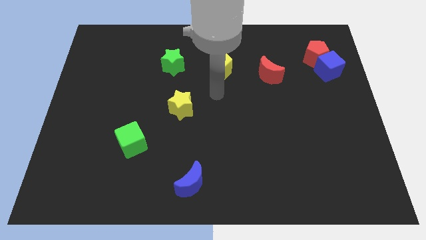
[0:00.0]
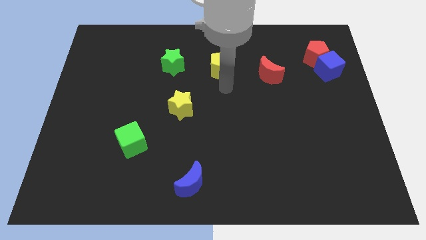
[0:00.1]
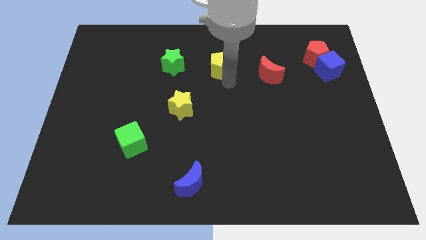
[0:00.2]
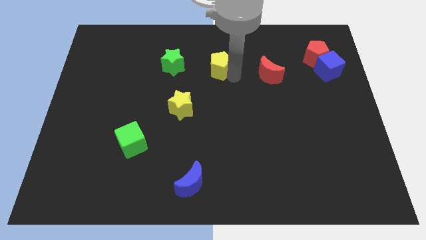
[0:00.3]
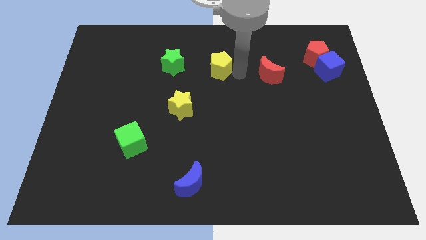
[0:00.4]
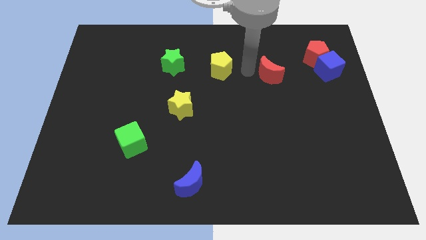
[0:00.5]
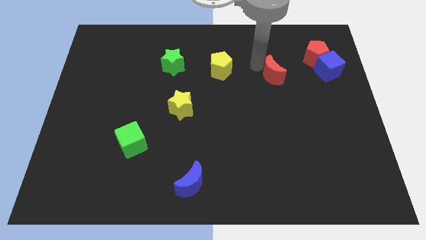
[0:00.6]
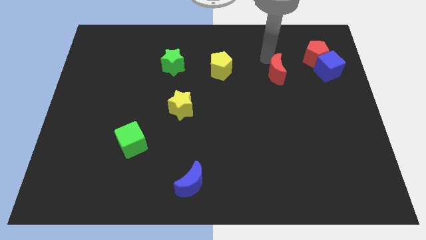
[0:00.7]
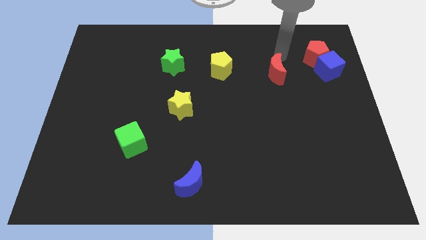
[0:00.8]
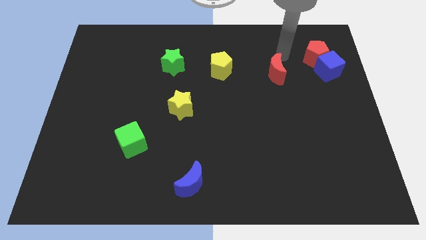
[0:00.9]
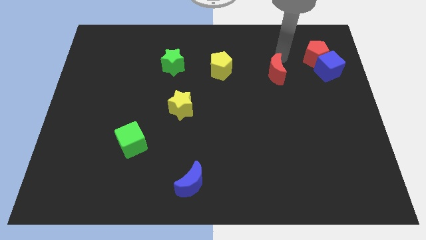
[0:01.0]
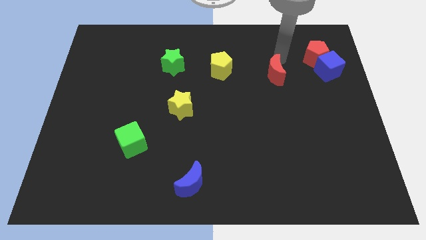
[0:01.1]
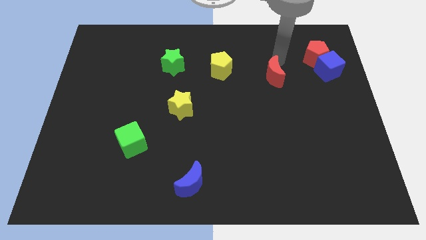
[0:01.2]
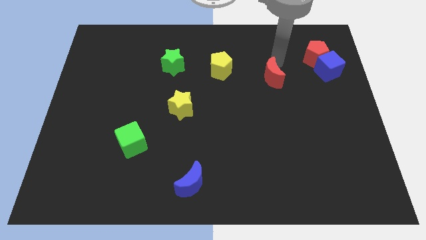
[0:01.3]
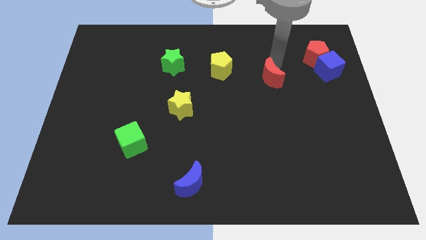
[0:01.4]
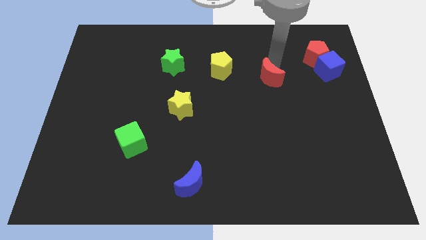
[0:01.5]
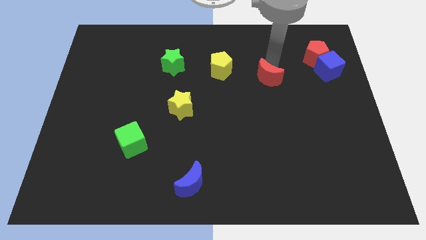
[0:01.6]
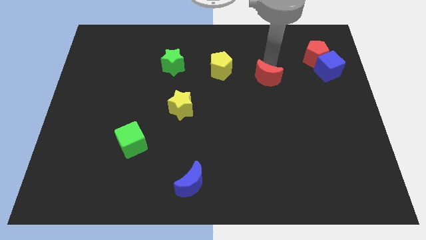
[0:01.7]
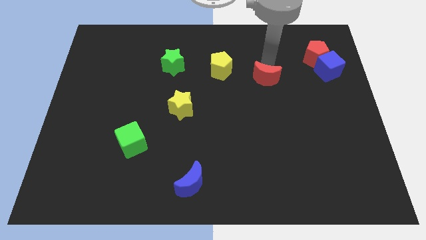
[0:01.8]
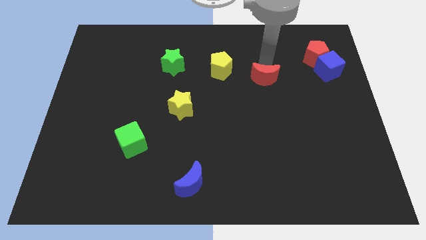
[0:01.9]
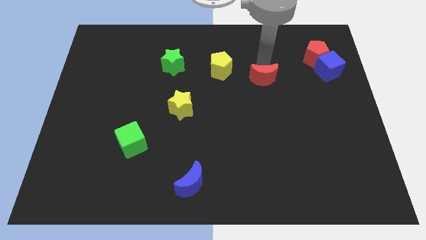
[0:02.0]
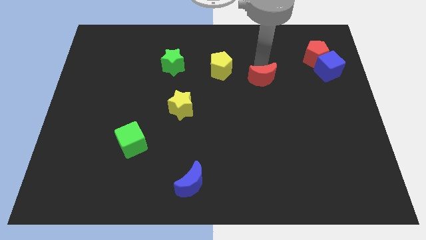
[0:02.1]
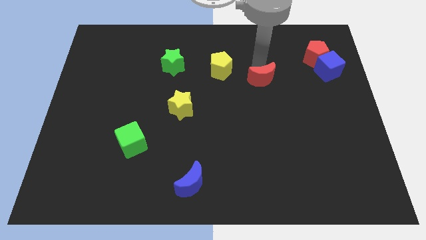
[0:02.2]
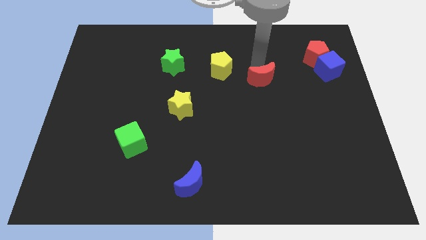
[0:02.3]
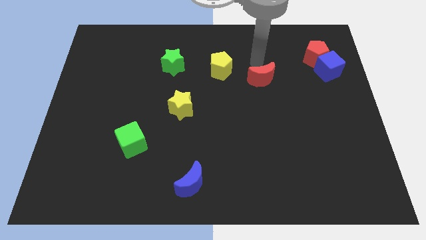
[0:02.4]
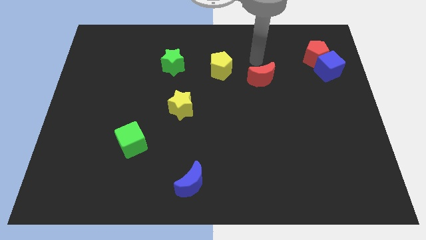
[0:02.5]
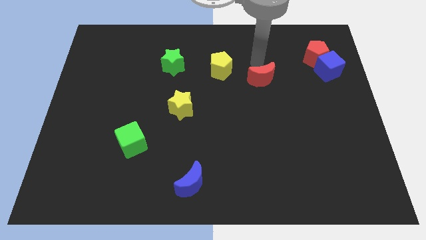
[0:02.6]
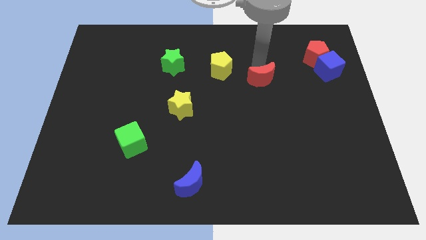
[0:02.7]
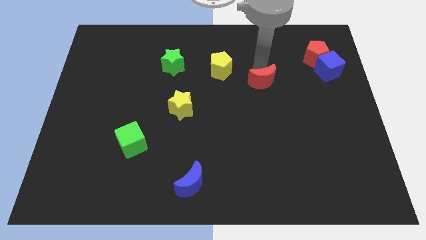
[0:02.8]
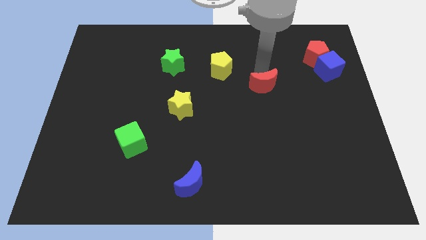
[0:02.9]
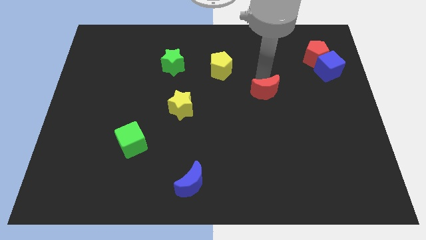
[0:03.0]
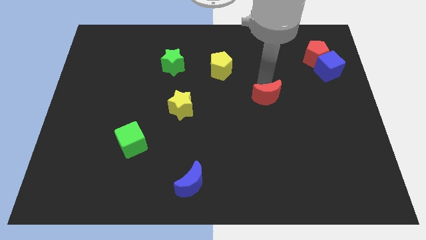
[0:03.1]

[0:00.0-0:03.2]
move the red moon downwards somewhat

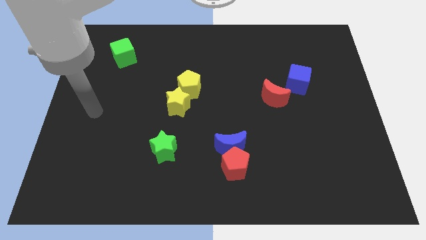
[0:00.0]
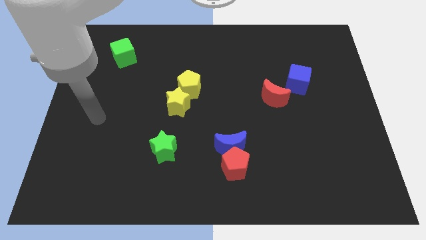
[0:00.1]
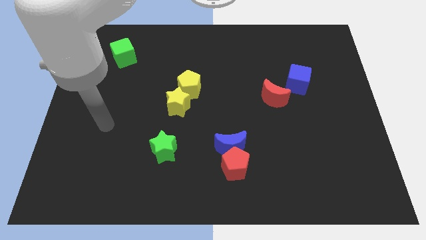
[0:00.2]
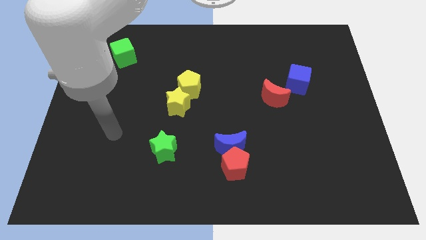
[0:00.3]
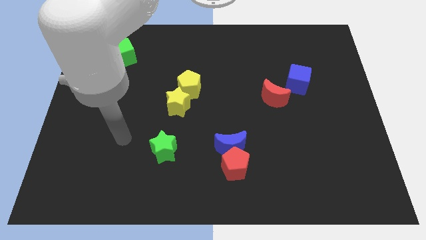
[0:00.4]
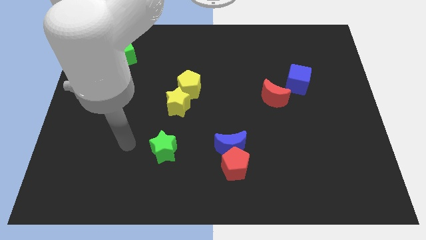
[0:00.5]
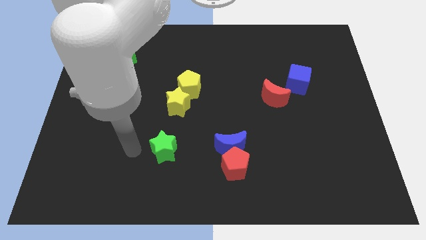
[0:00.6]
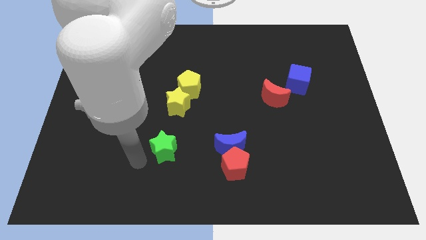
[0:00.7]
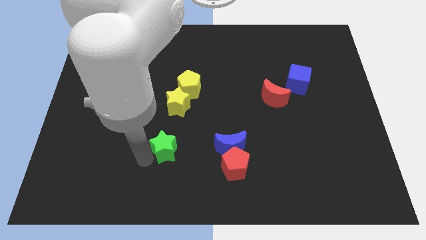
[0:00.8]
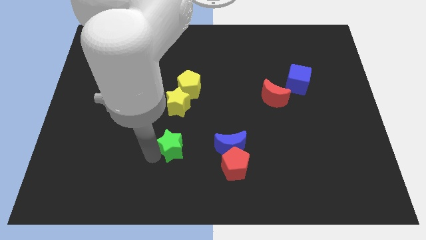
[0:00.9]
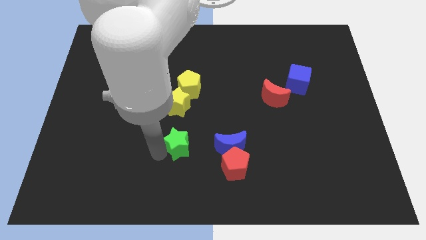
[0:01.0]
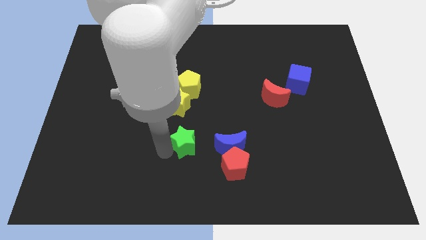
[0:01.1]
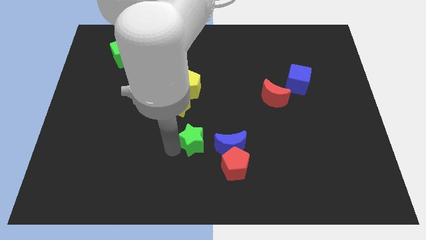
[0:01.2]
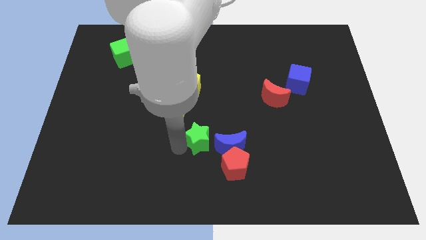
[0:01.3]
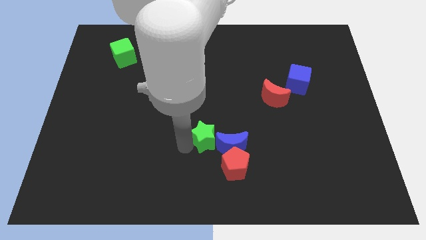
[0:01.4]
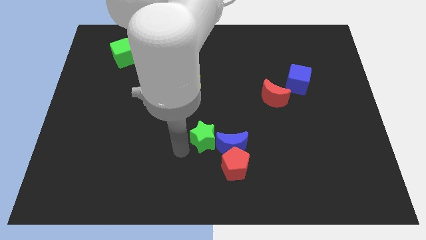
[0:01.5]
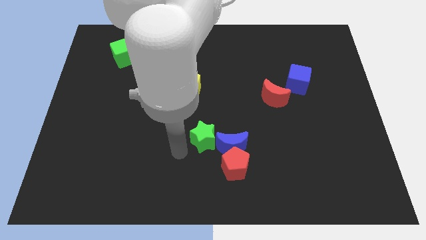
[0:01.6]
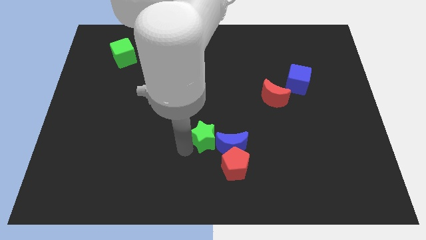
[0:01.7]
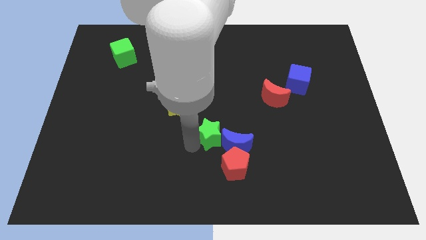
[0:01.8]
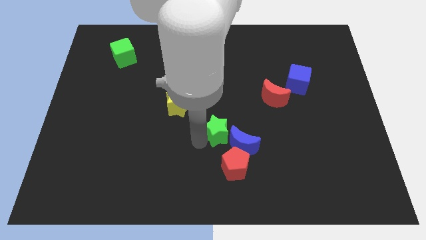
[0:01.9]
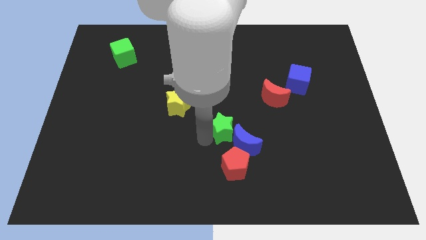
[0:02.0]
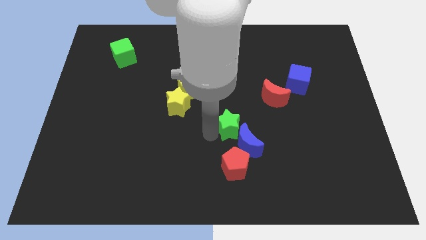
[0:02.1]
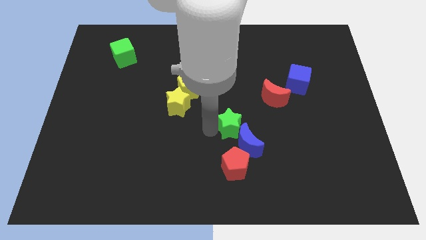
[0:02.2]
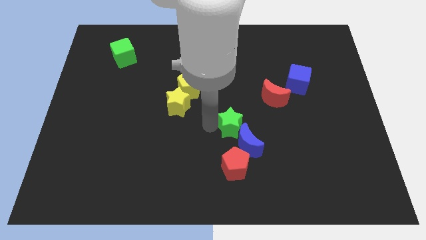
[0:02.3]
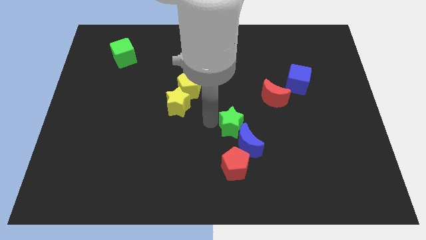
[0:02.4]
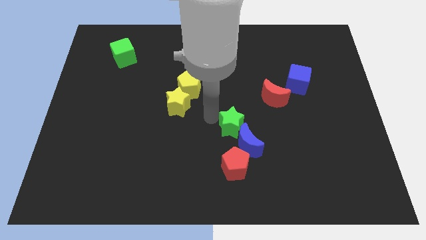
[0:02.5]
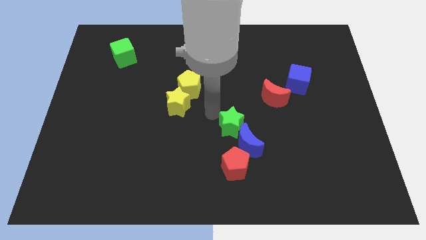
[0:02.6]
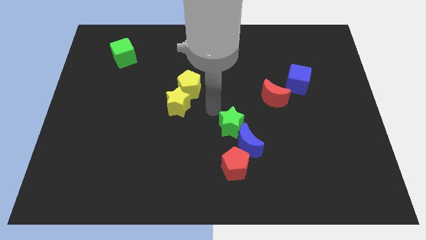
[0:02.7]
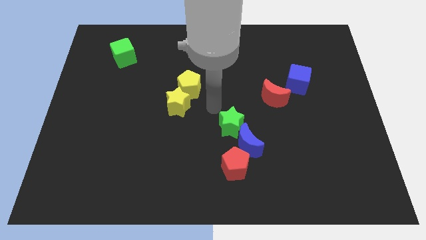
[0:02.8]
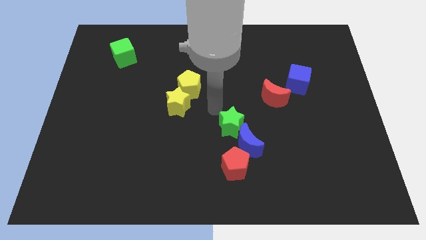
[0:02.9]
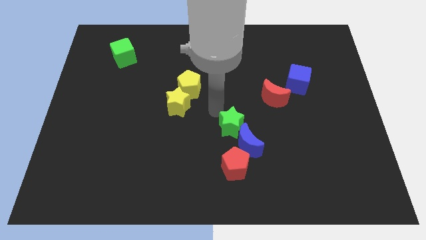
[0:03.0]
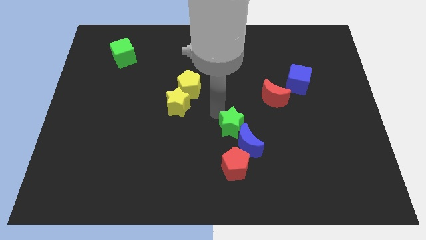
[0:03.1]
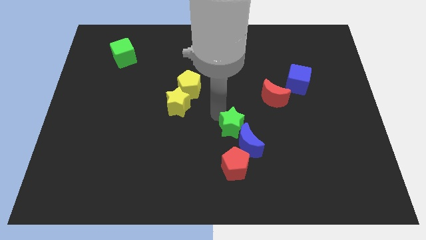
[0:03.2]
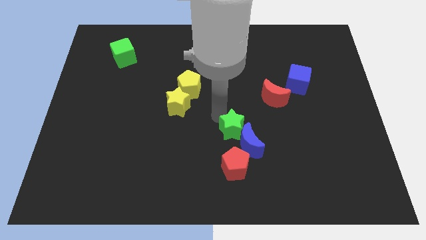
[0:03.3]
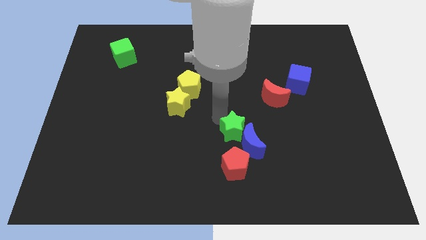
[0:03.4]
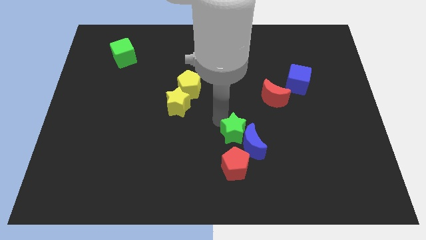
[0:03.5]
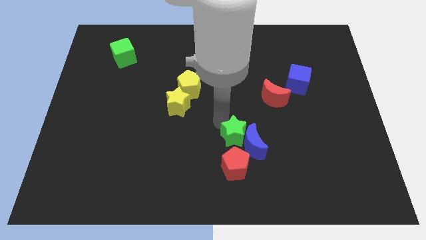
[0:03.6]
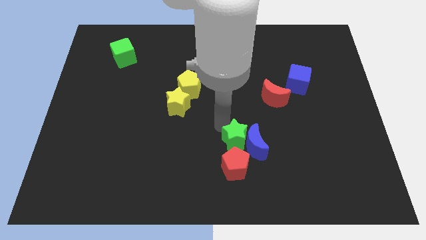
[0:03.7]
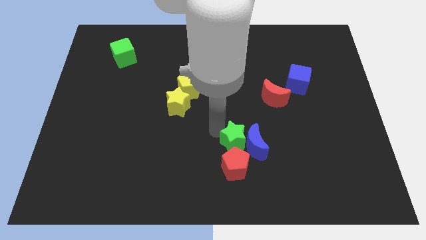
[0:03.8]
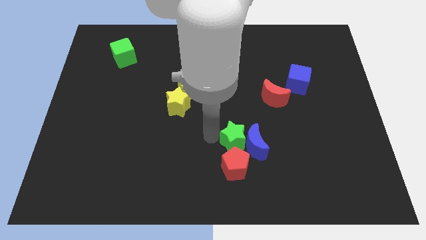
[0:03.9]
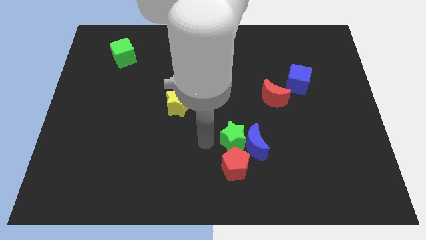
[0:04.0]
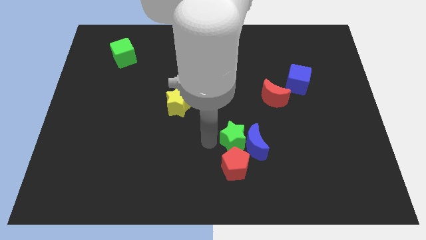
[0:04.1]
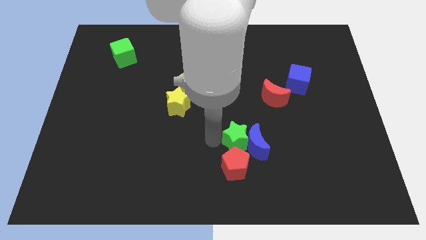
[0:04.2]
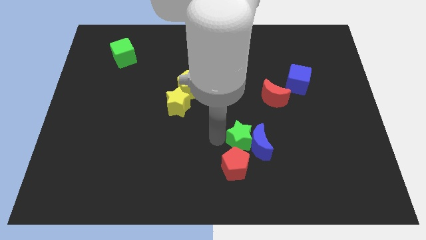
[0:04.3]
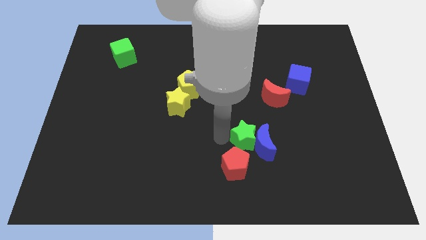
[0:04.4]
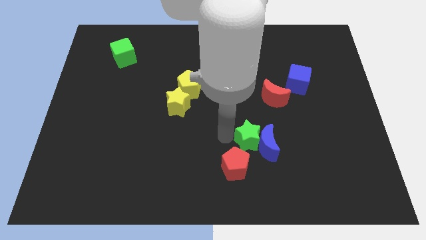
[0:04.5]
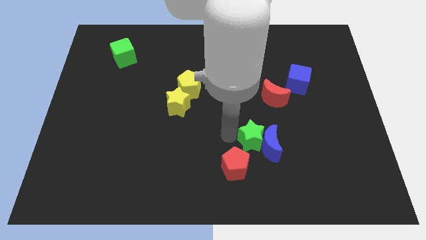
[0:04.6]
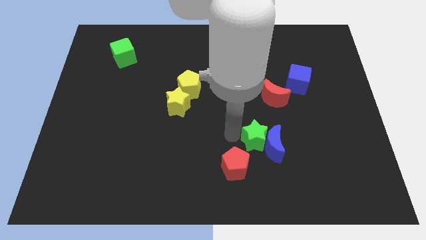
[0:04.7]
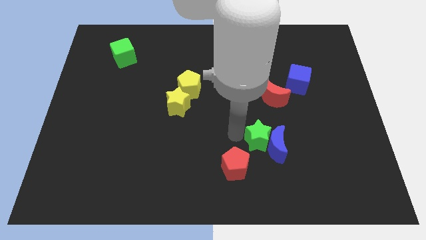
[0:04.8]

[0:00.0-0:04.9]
push the green star right
